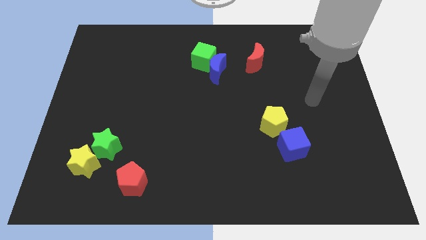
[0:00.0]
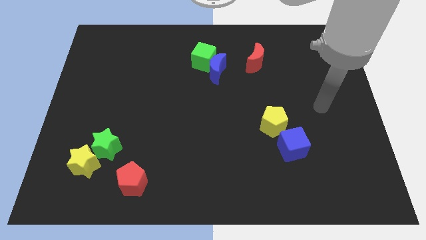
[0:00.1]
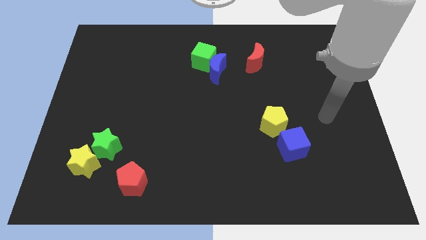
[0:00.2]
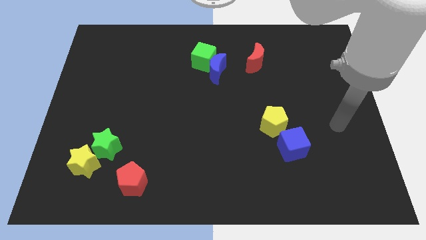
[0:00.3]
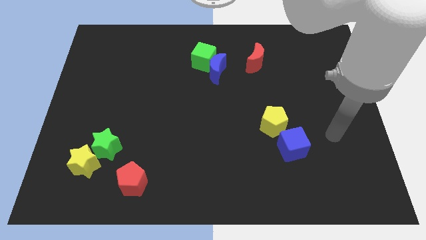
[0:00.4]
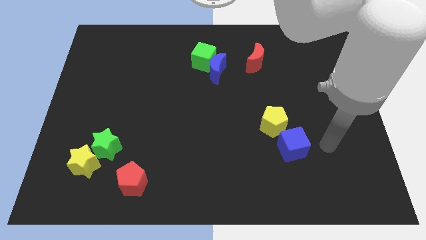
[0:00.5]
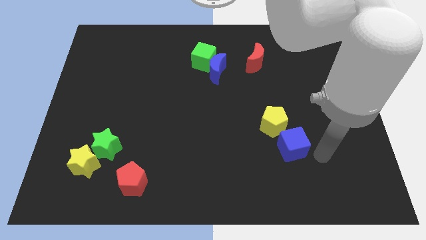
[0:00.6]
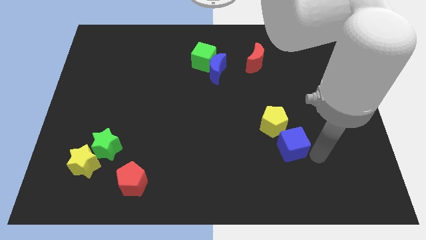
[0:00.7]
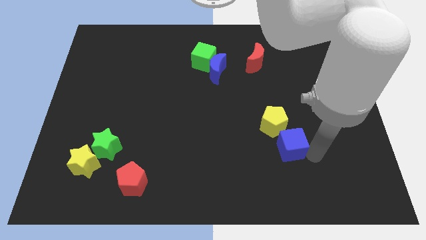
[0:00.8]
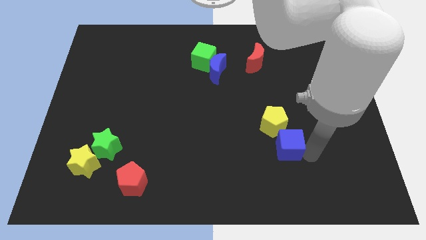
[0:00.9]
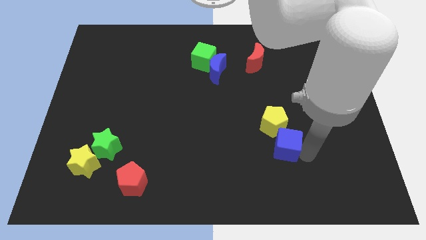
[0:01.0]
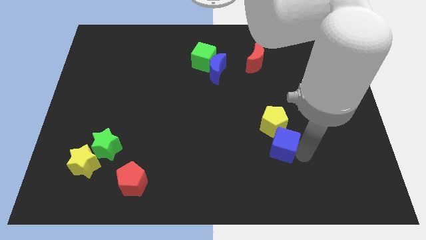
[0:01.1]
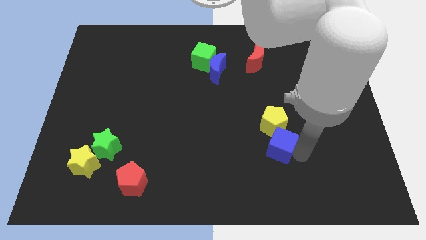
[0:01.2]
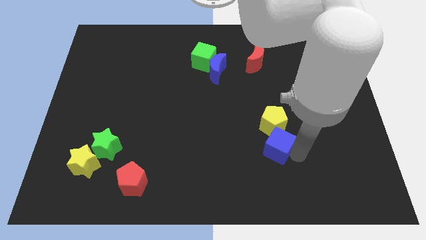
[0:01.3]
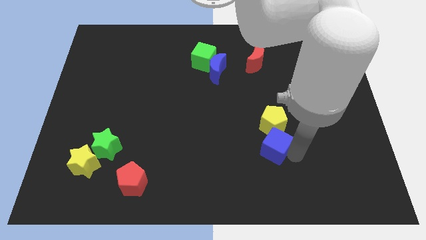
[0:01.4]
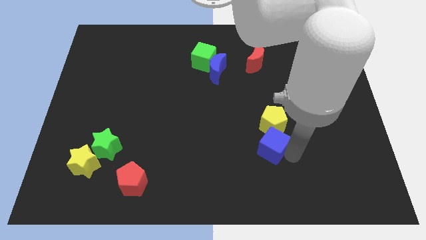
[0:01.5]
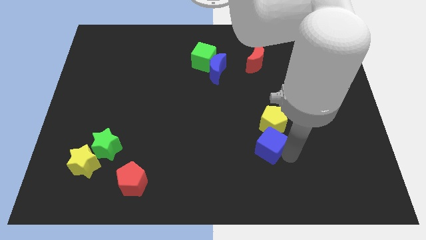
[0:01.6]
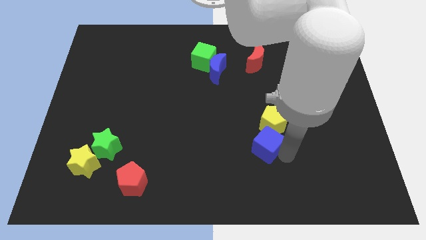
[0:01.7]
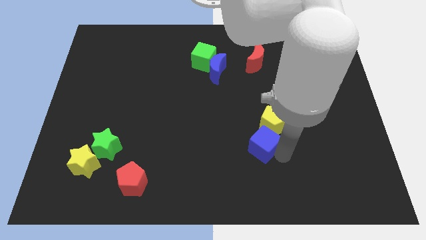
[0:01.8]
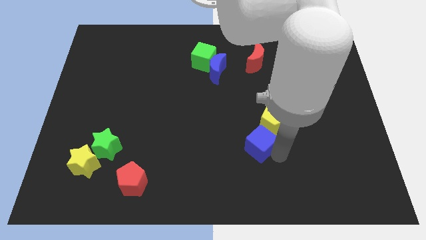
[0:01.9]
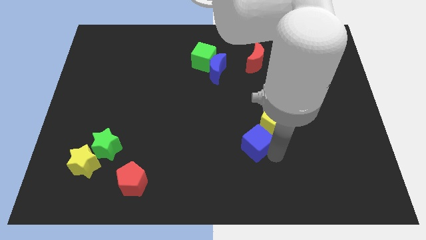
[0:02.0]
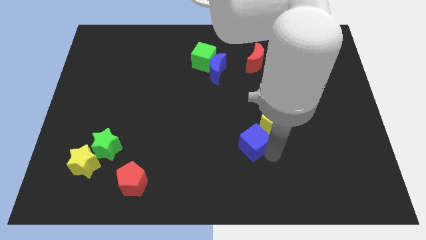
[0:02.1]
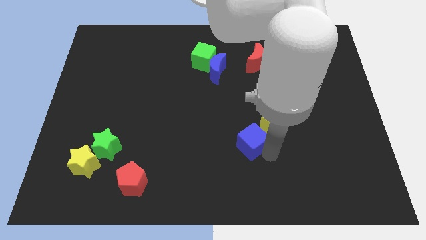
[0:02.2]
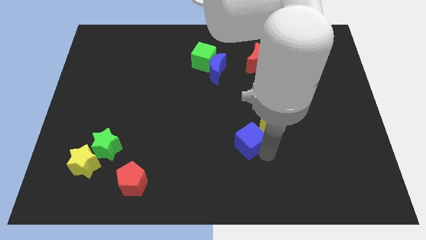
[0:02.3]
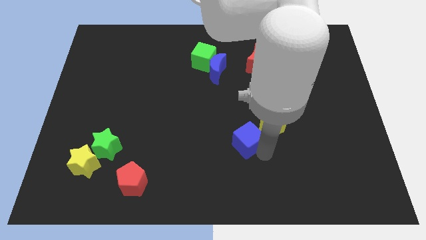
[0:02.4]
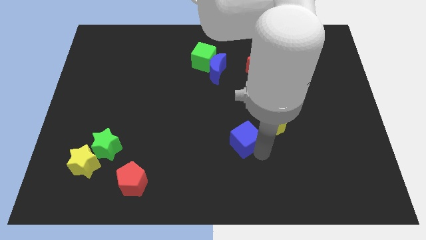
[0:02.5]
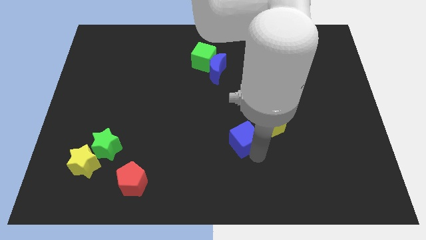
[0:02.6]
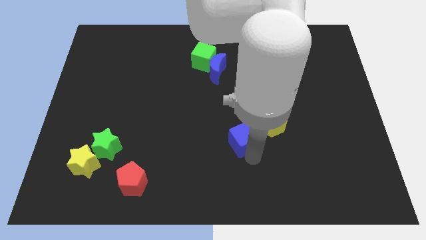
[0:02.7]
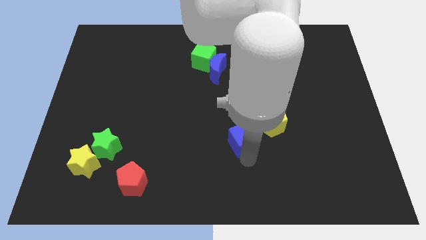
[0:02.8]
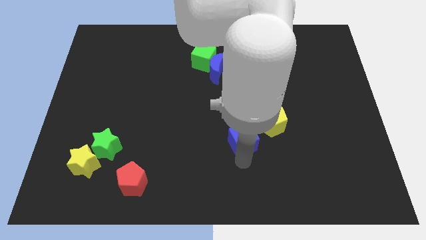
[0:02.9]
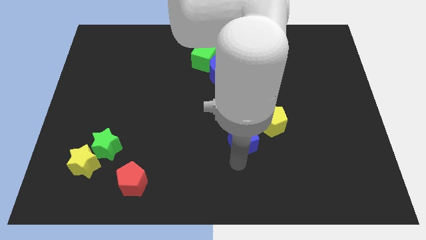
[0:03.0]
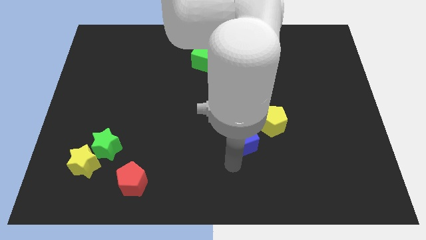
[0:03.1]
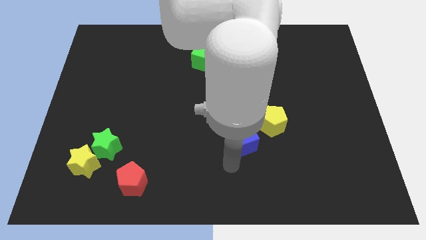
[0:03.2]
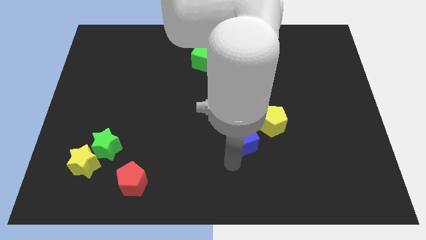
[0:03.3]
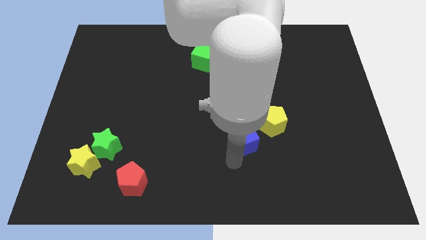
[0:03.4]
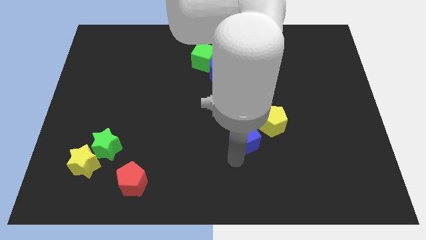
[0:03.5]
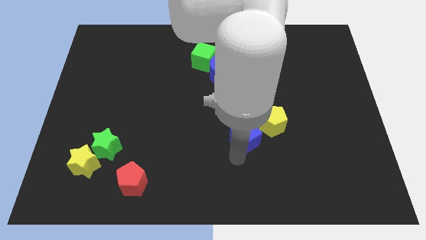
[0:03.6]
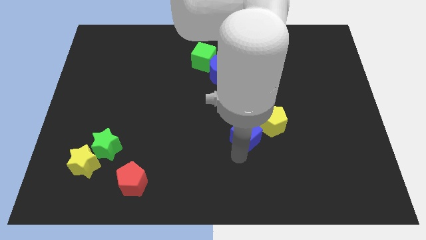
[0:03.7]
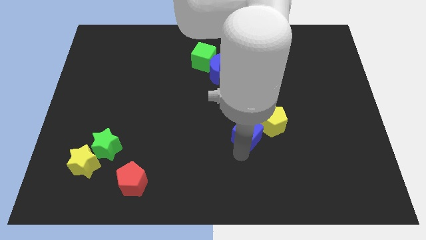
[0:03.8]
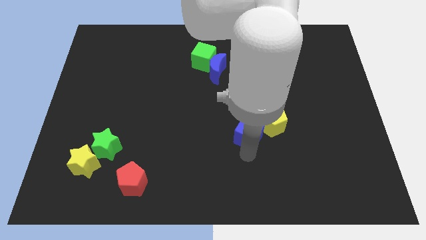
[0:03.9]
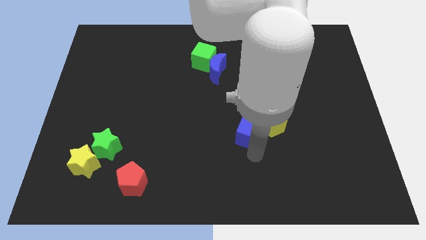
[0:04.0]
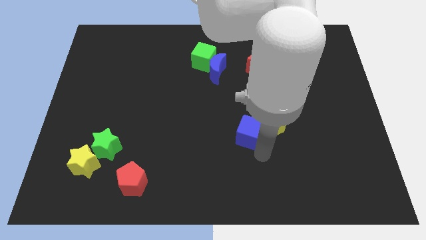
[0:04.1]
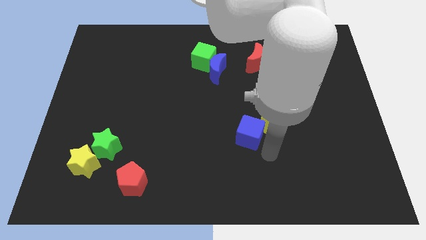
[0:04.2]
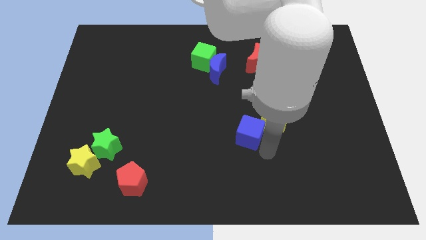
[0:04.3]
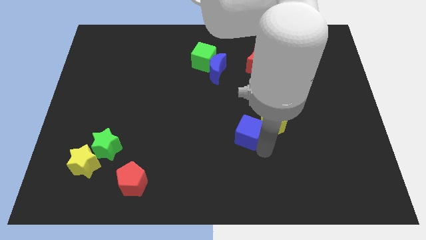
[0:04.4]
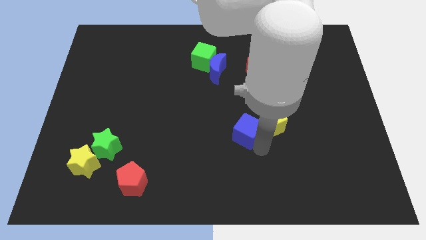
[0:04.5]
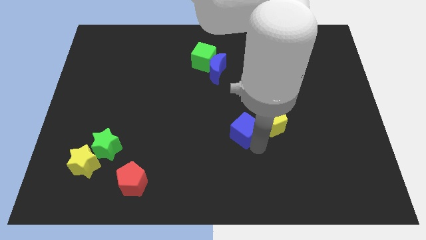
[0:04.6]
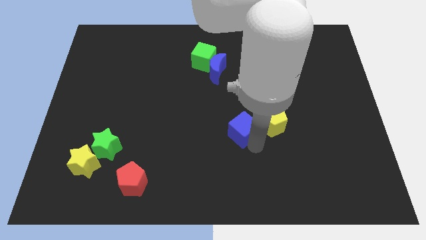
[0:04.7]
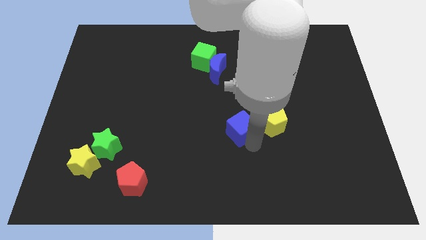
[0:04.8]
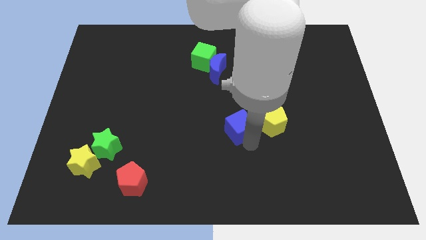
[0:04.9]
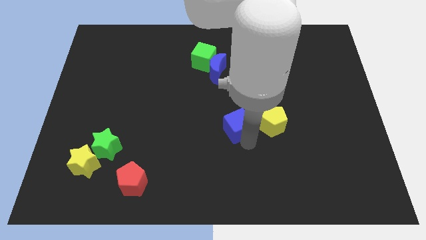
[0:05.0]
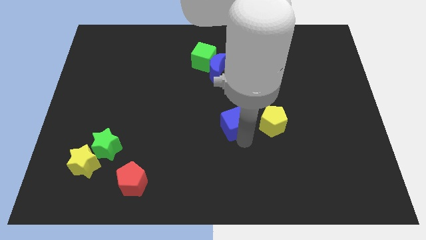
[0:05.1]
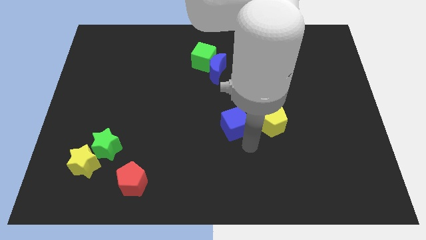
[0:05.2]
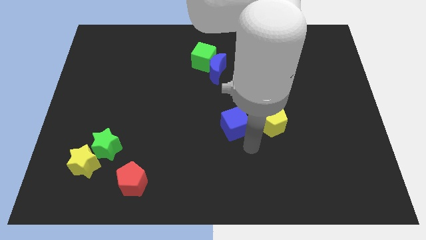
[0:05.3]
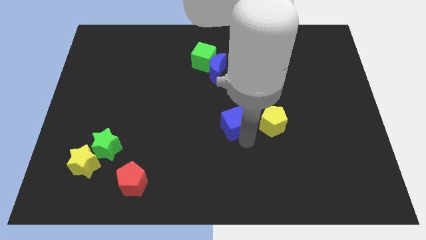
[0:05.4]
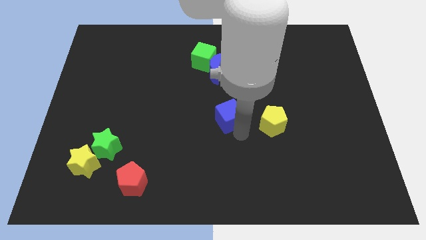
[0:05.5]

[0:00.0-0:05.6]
slide the blue cube below the blue moon

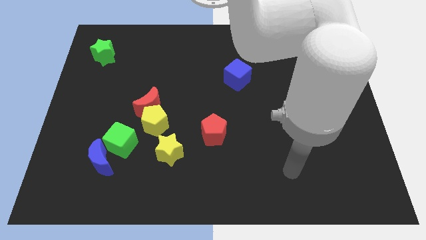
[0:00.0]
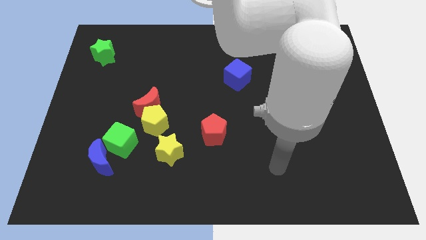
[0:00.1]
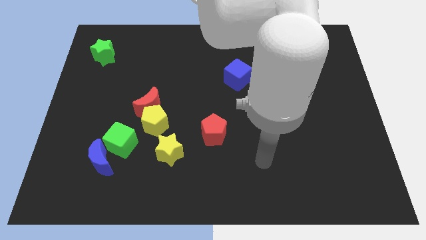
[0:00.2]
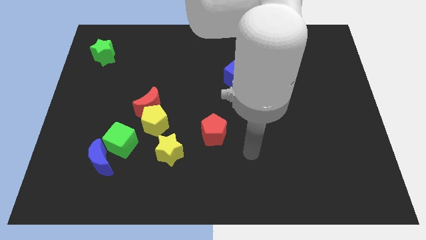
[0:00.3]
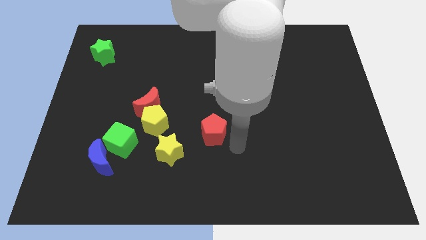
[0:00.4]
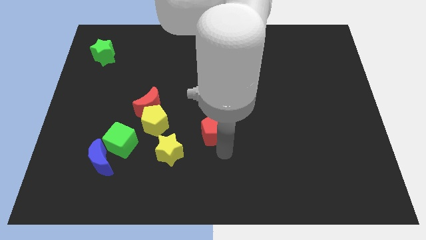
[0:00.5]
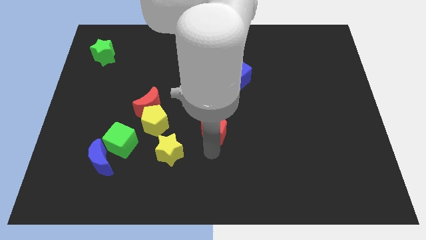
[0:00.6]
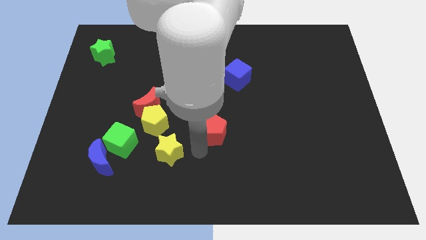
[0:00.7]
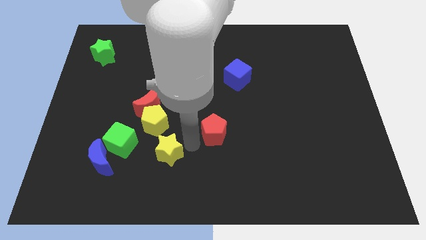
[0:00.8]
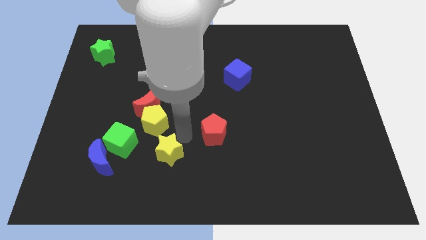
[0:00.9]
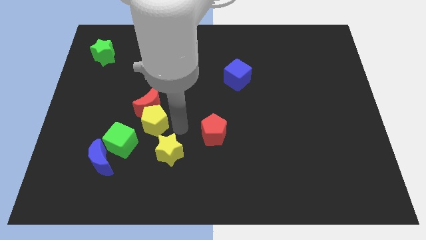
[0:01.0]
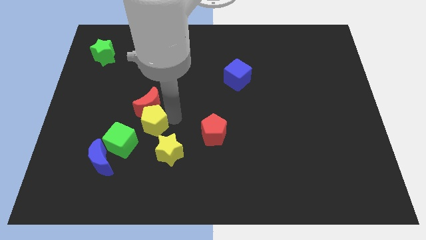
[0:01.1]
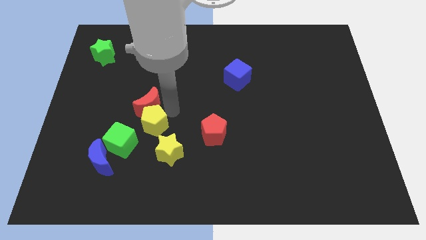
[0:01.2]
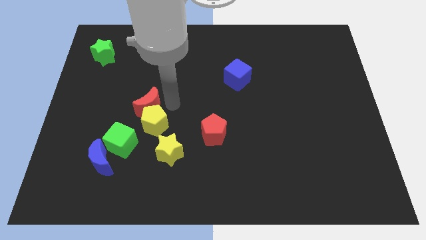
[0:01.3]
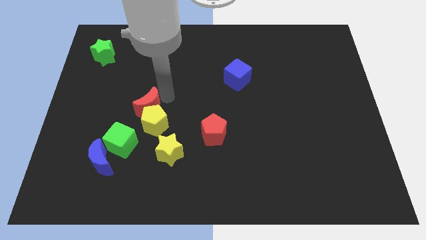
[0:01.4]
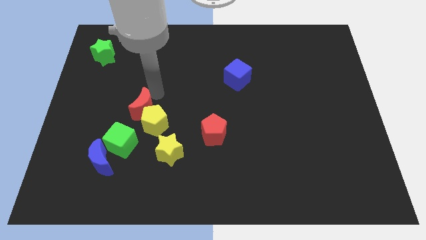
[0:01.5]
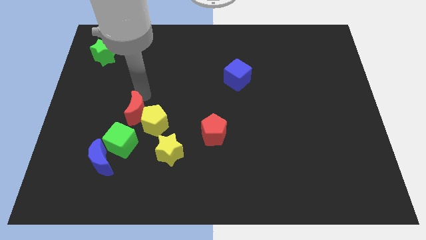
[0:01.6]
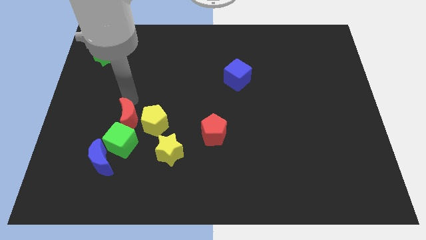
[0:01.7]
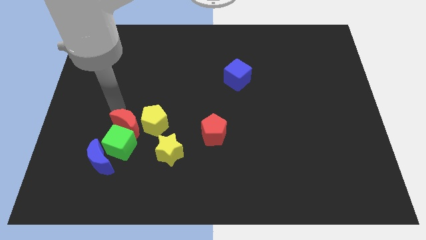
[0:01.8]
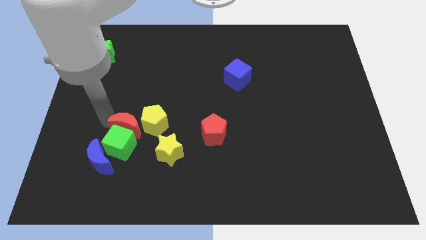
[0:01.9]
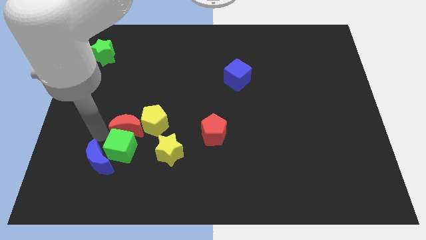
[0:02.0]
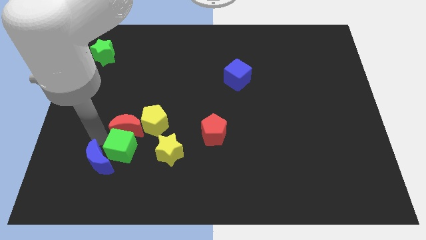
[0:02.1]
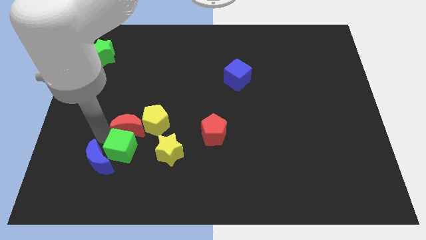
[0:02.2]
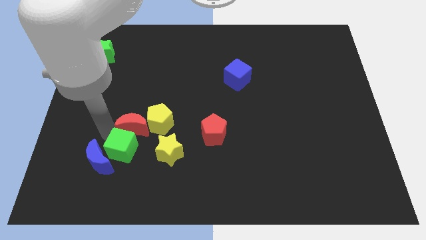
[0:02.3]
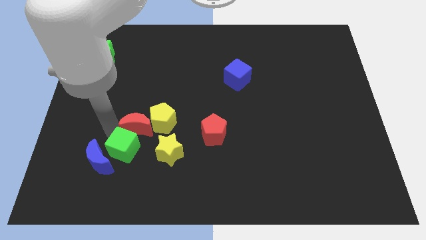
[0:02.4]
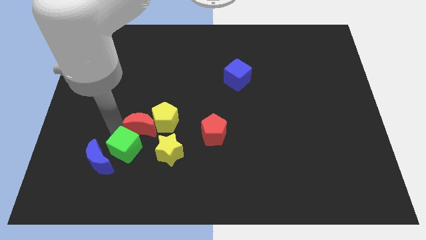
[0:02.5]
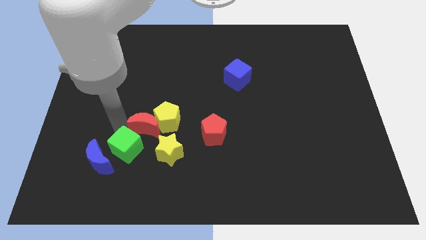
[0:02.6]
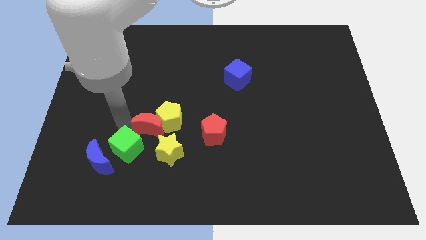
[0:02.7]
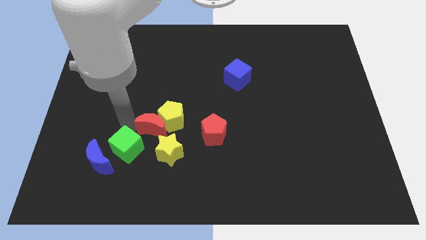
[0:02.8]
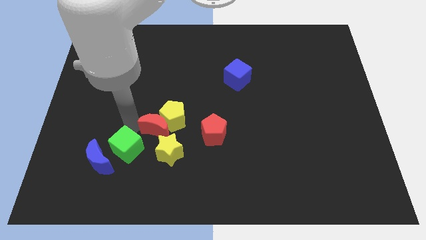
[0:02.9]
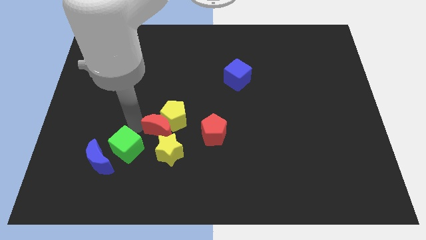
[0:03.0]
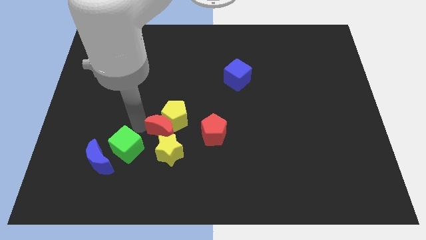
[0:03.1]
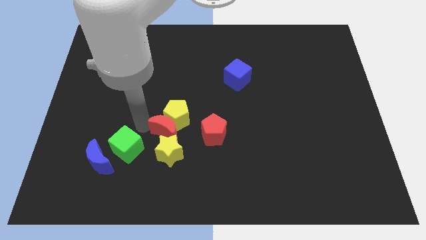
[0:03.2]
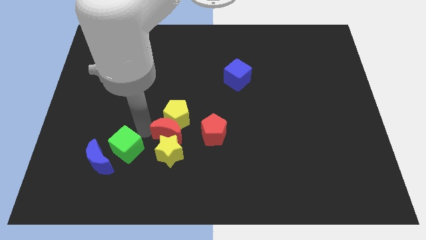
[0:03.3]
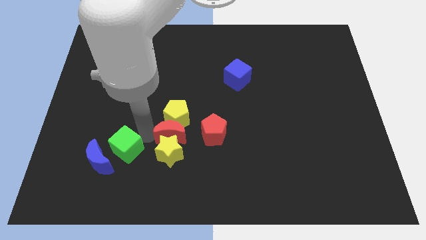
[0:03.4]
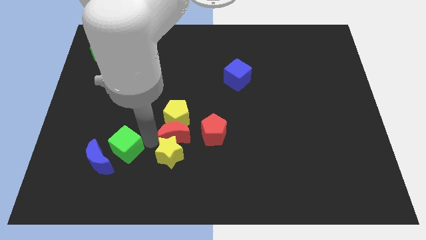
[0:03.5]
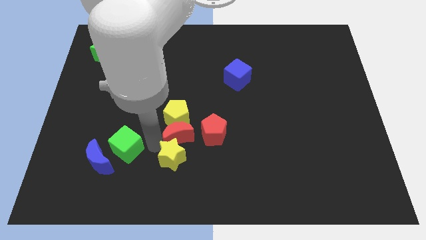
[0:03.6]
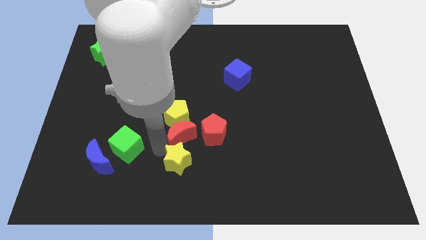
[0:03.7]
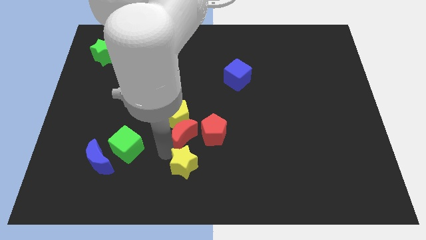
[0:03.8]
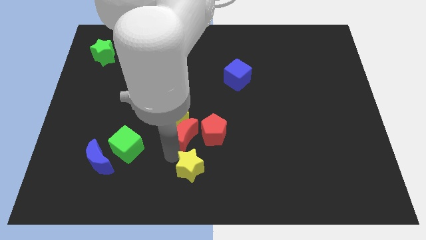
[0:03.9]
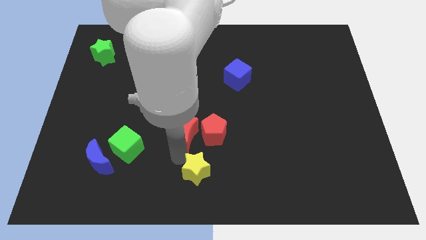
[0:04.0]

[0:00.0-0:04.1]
push the red moon to the top left side of the red pentagon
